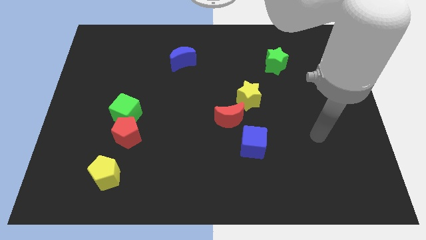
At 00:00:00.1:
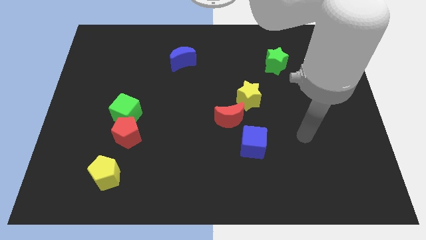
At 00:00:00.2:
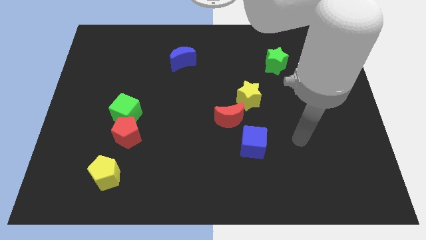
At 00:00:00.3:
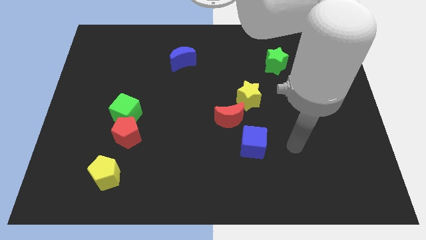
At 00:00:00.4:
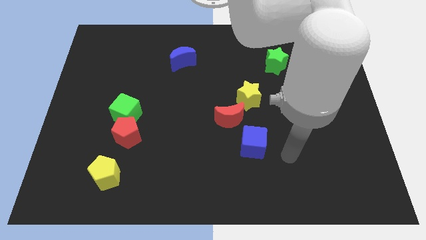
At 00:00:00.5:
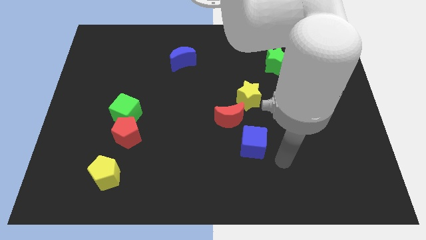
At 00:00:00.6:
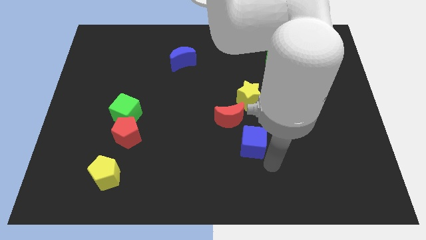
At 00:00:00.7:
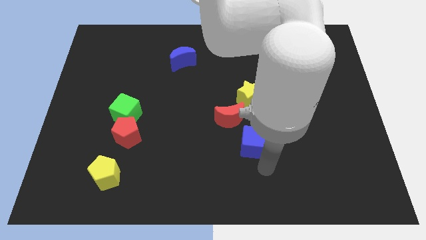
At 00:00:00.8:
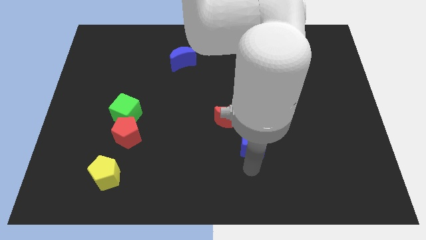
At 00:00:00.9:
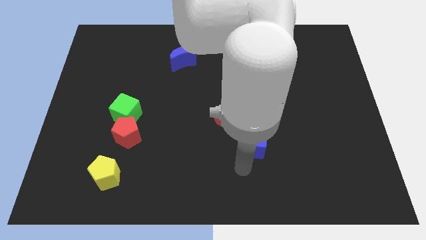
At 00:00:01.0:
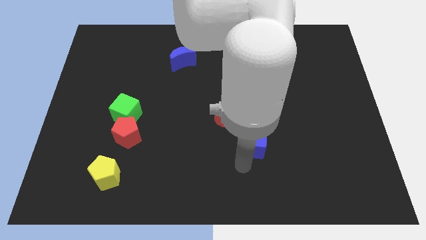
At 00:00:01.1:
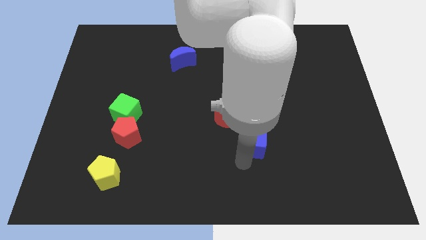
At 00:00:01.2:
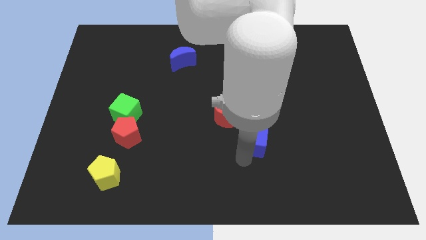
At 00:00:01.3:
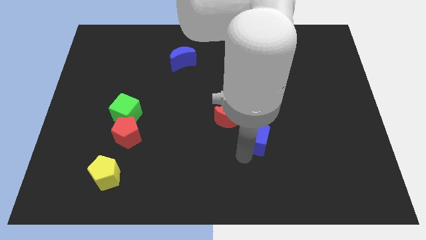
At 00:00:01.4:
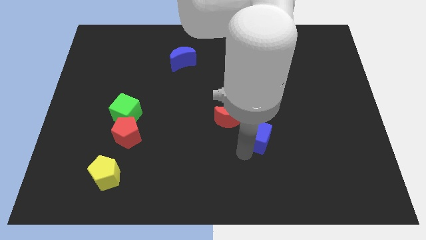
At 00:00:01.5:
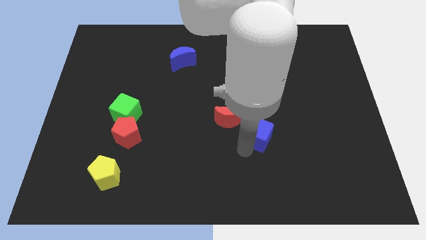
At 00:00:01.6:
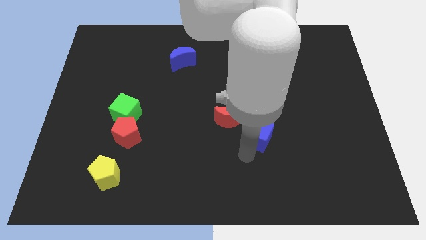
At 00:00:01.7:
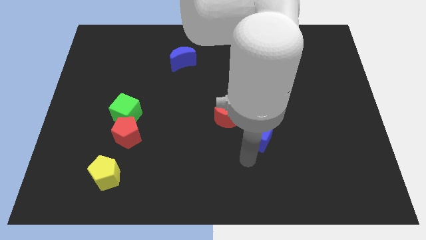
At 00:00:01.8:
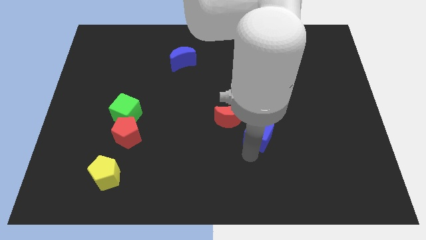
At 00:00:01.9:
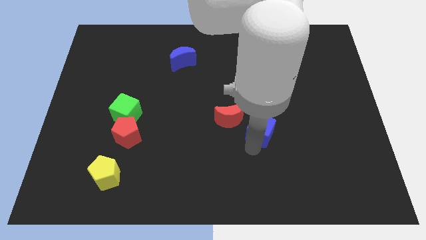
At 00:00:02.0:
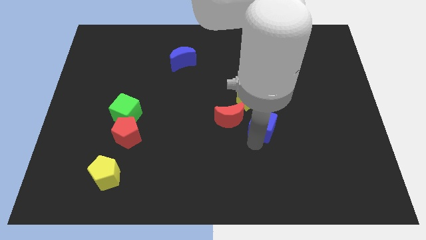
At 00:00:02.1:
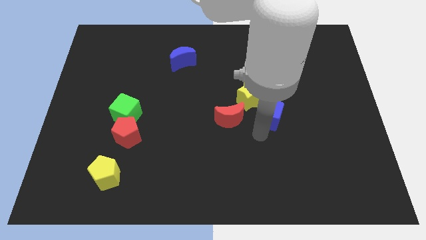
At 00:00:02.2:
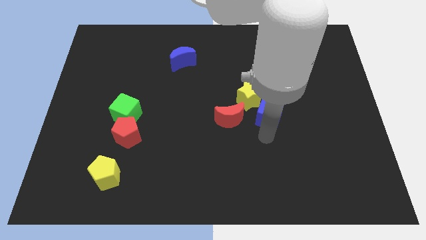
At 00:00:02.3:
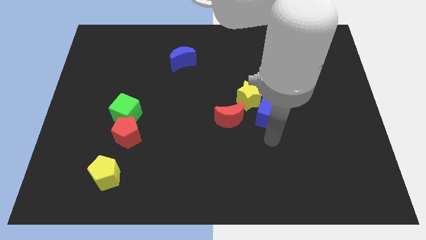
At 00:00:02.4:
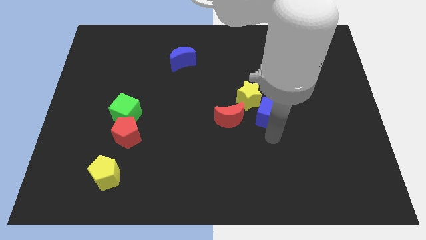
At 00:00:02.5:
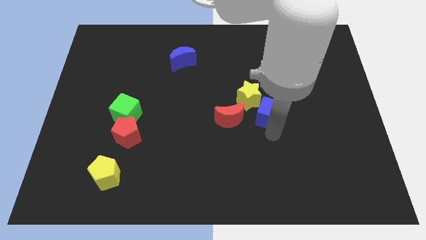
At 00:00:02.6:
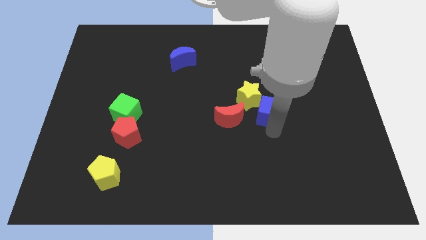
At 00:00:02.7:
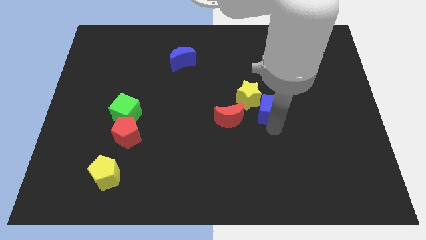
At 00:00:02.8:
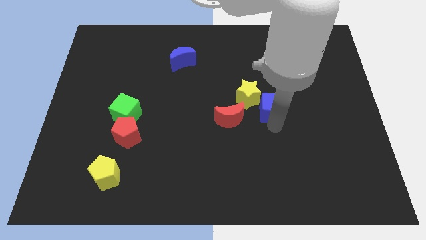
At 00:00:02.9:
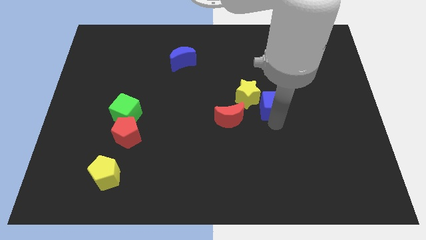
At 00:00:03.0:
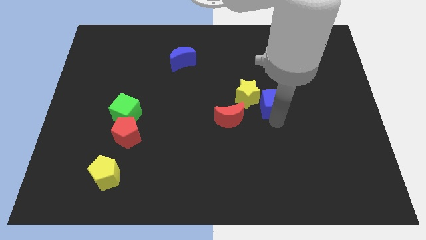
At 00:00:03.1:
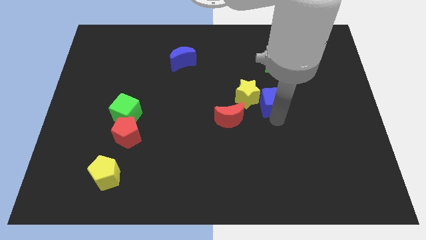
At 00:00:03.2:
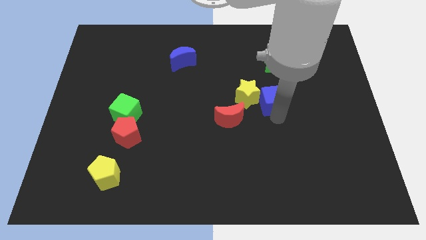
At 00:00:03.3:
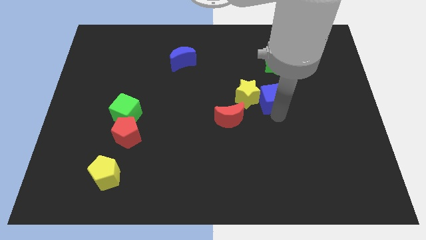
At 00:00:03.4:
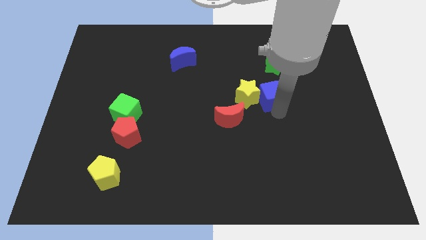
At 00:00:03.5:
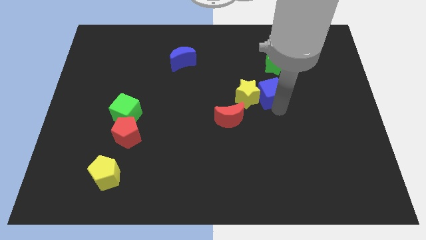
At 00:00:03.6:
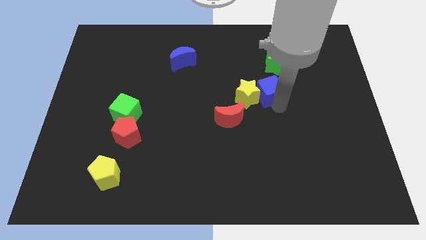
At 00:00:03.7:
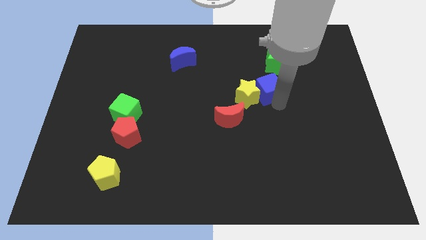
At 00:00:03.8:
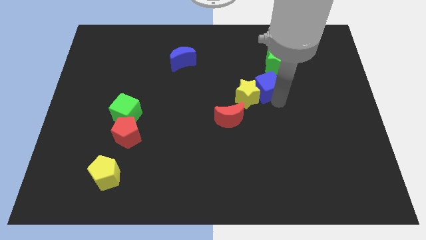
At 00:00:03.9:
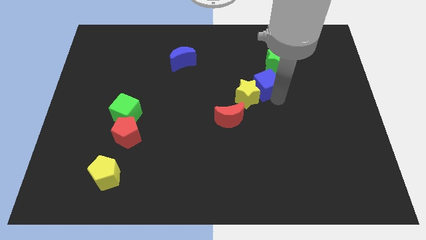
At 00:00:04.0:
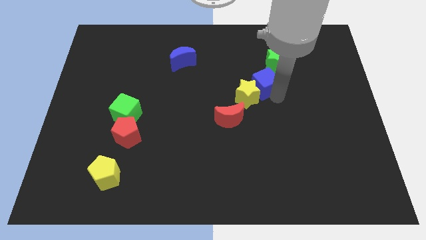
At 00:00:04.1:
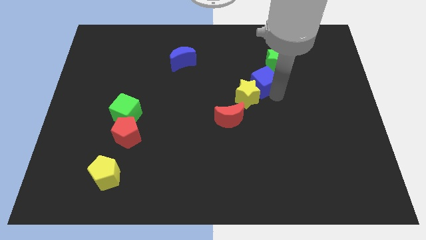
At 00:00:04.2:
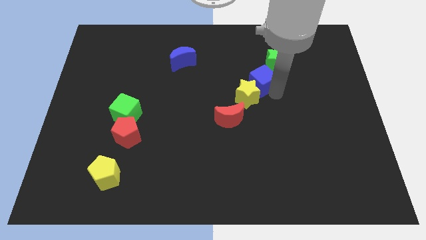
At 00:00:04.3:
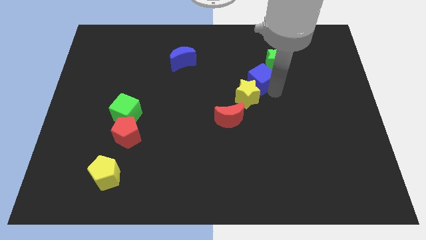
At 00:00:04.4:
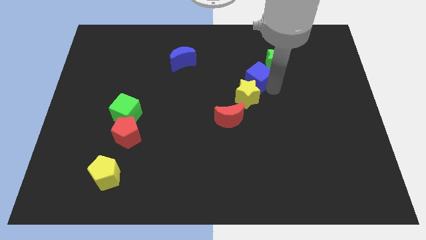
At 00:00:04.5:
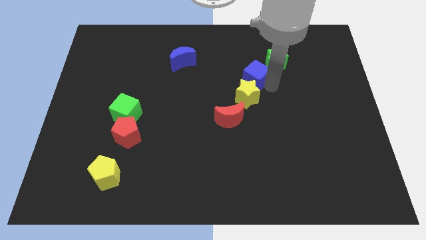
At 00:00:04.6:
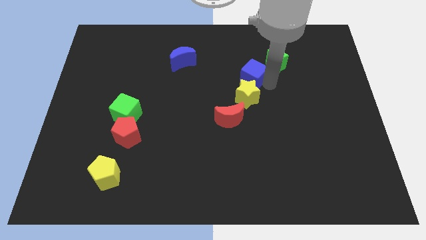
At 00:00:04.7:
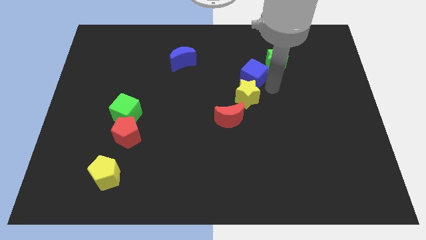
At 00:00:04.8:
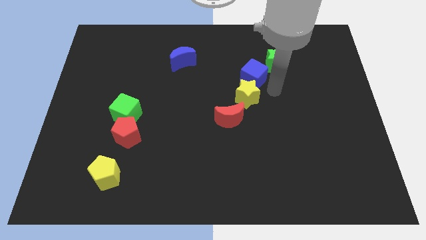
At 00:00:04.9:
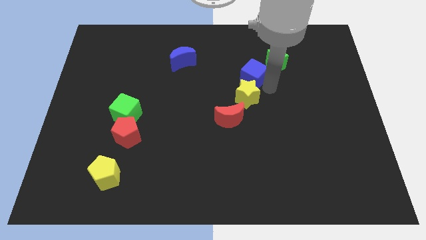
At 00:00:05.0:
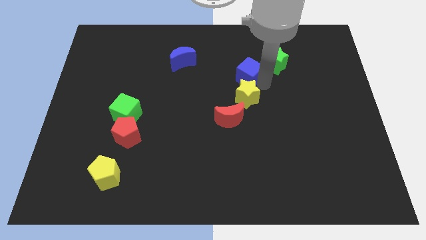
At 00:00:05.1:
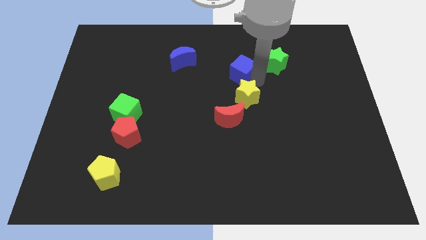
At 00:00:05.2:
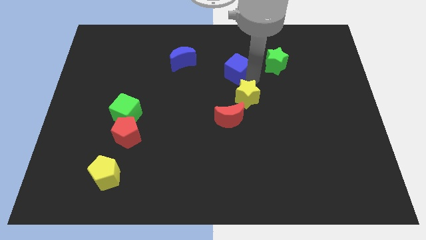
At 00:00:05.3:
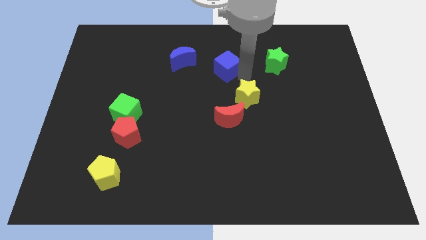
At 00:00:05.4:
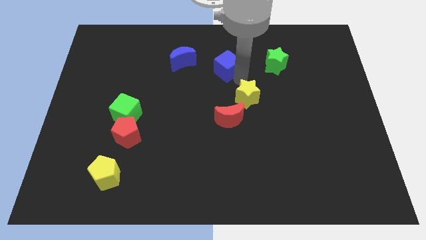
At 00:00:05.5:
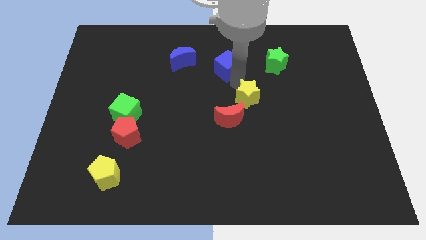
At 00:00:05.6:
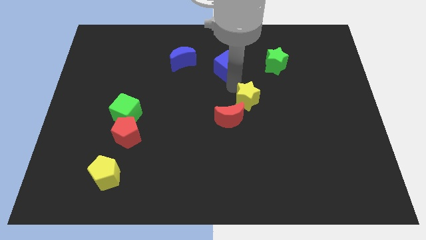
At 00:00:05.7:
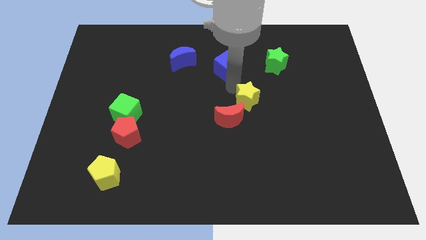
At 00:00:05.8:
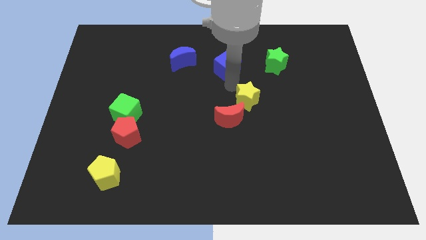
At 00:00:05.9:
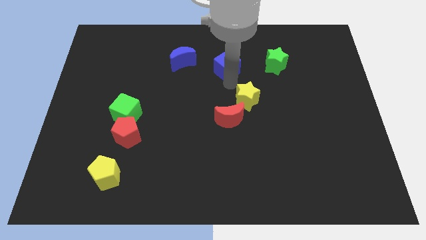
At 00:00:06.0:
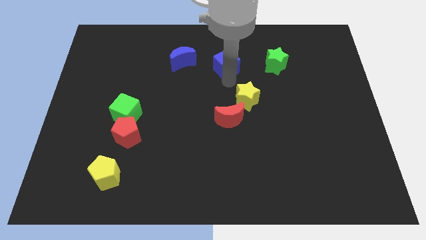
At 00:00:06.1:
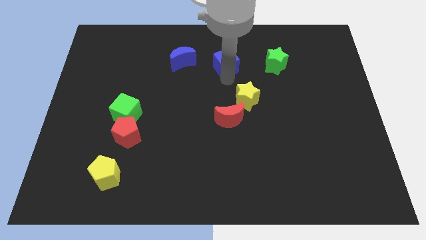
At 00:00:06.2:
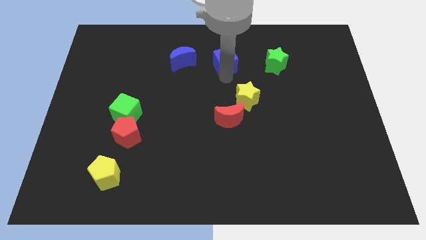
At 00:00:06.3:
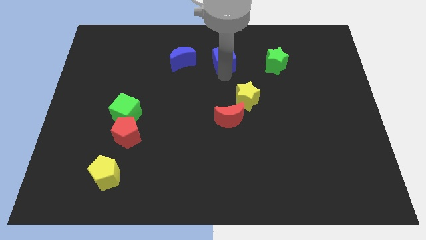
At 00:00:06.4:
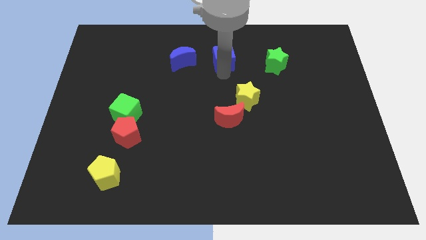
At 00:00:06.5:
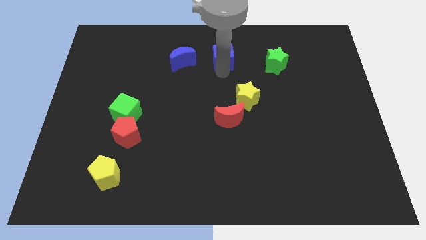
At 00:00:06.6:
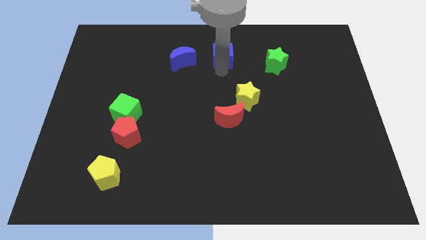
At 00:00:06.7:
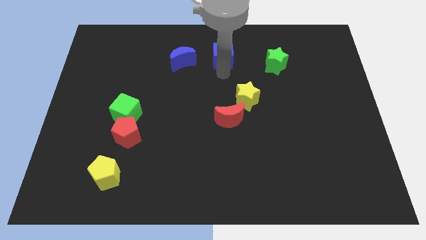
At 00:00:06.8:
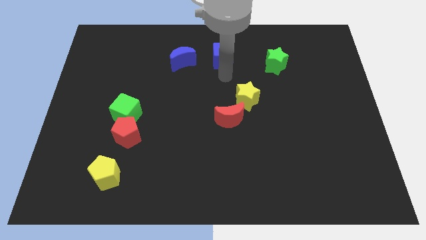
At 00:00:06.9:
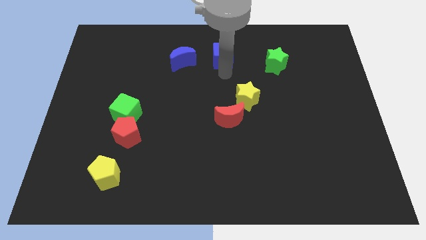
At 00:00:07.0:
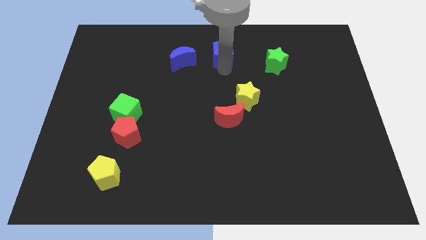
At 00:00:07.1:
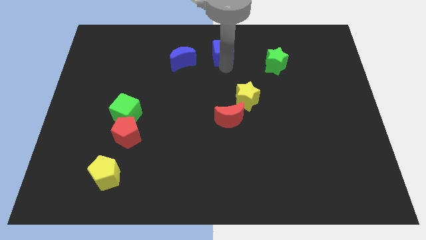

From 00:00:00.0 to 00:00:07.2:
move the blue cube to the top
